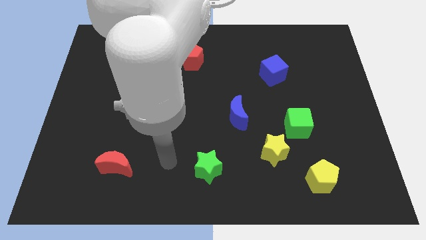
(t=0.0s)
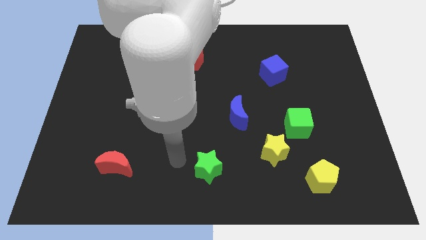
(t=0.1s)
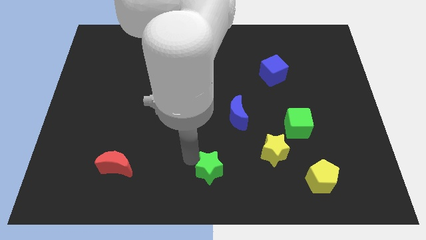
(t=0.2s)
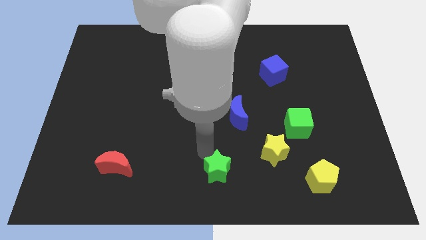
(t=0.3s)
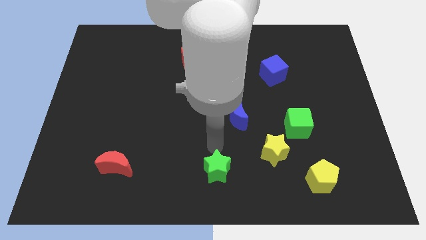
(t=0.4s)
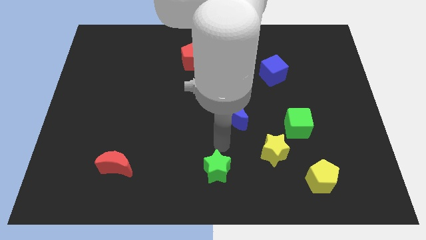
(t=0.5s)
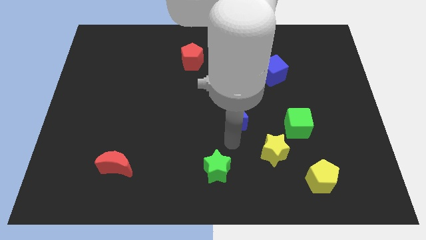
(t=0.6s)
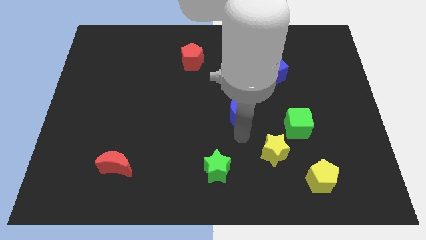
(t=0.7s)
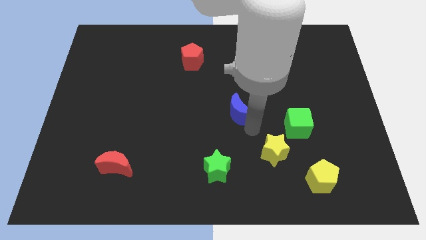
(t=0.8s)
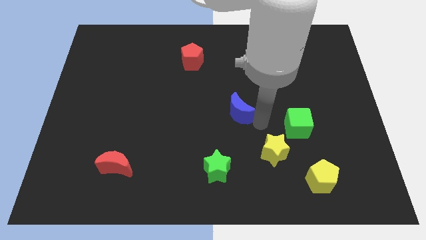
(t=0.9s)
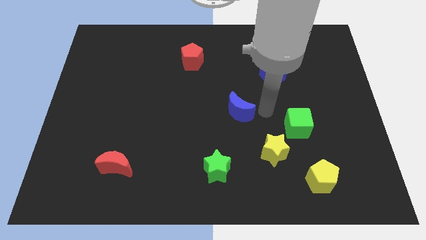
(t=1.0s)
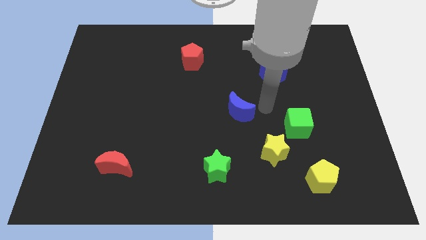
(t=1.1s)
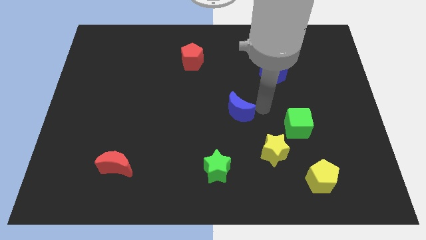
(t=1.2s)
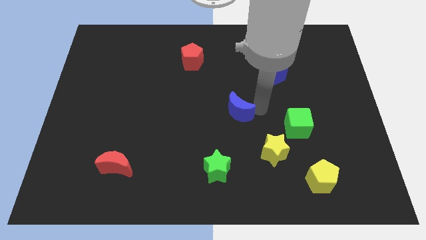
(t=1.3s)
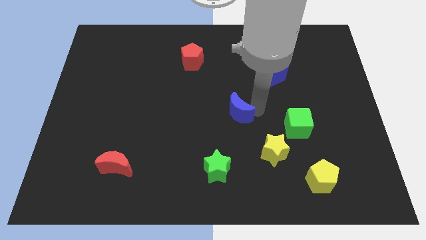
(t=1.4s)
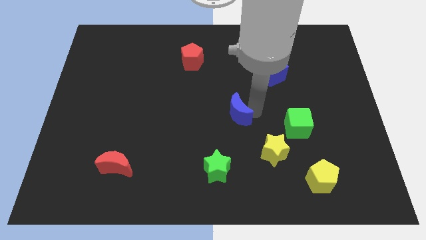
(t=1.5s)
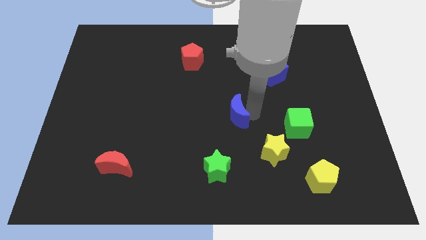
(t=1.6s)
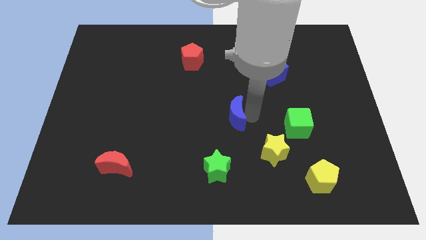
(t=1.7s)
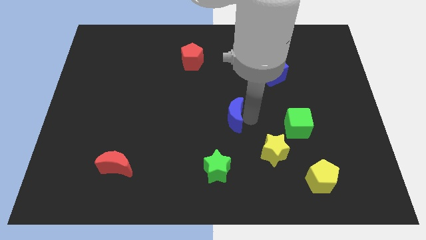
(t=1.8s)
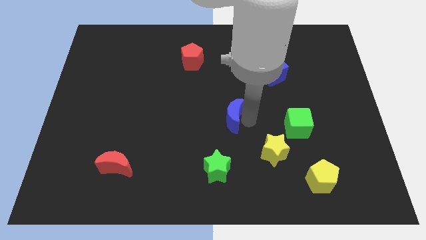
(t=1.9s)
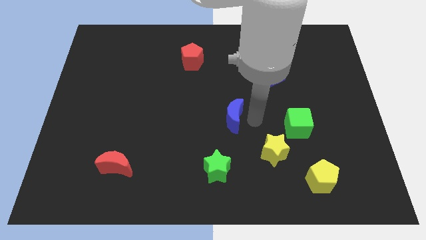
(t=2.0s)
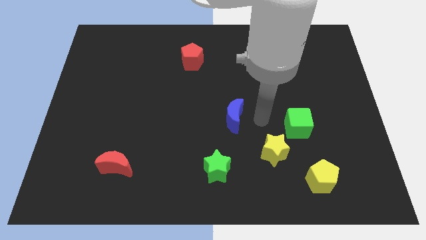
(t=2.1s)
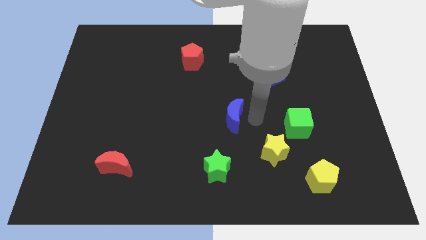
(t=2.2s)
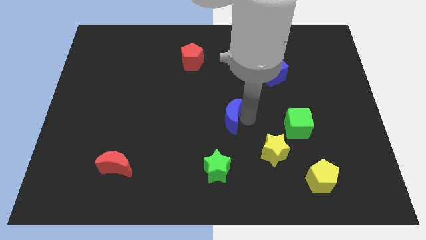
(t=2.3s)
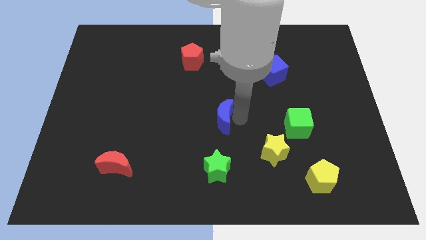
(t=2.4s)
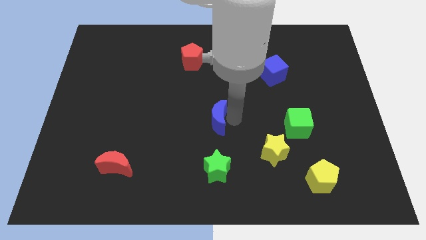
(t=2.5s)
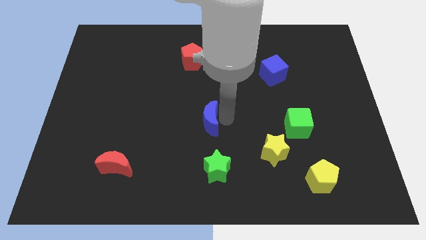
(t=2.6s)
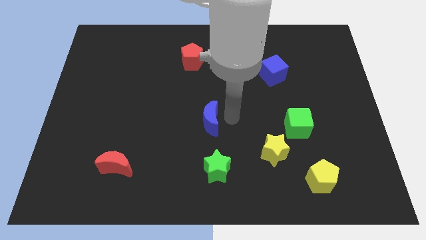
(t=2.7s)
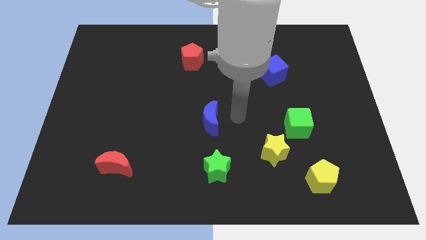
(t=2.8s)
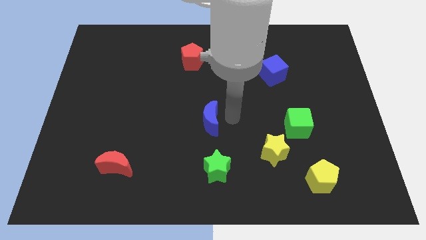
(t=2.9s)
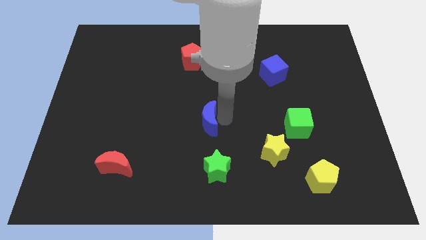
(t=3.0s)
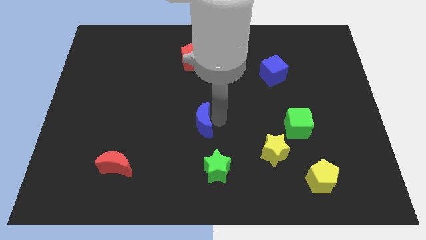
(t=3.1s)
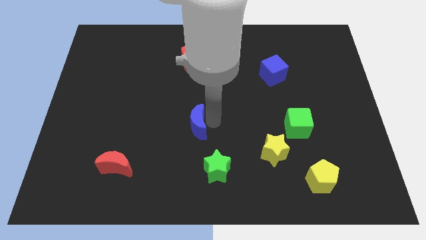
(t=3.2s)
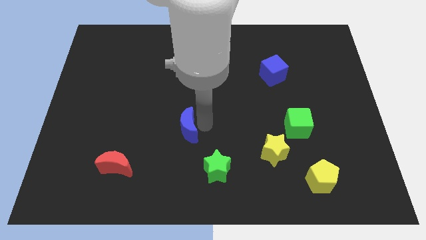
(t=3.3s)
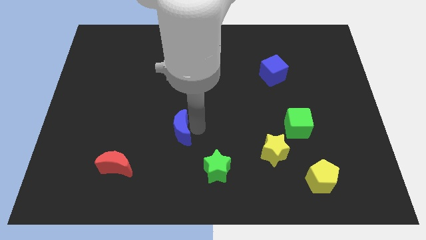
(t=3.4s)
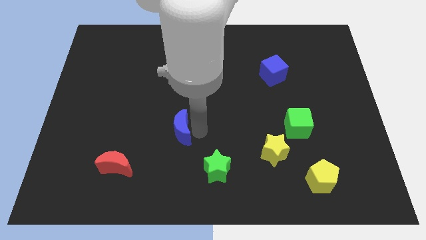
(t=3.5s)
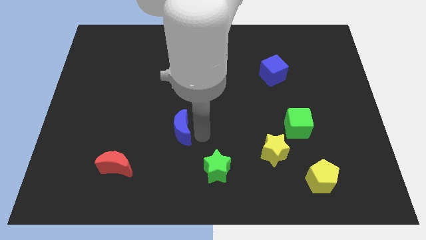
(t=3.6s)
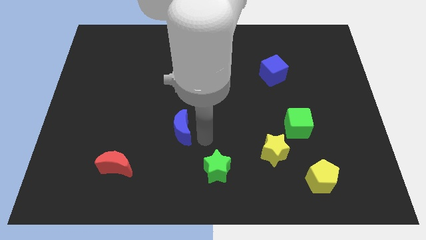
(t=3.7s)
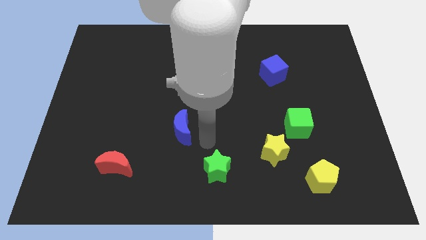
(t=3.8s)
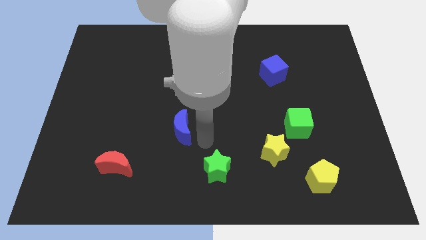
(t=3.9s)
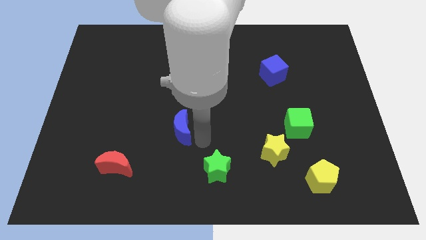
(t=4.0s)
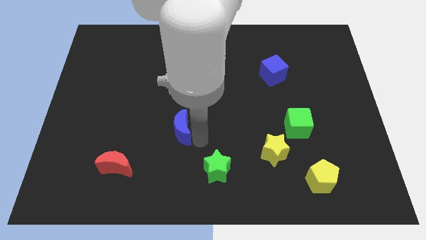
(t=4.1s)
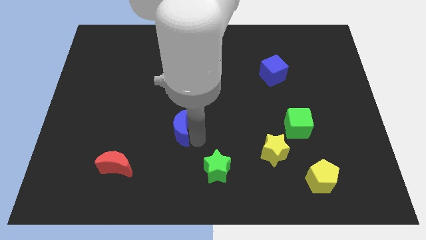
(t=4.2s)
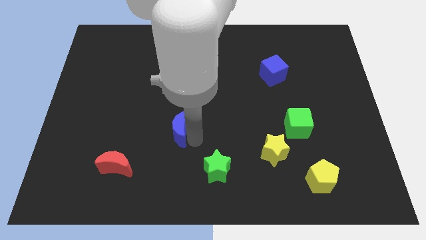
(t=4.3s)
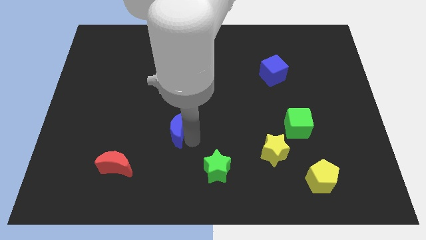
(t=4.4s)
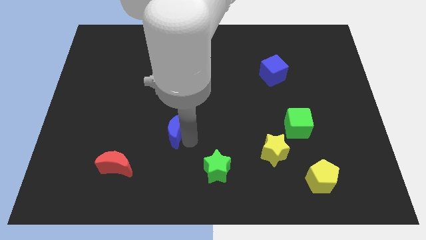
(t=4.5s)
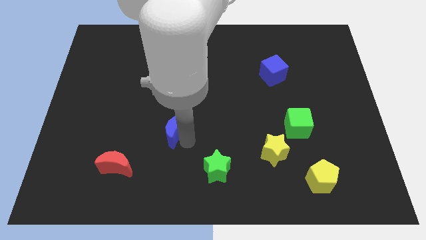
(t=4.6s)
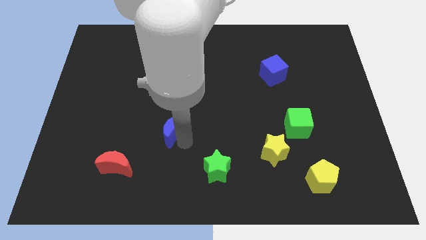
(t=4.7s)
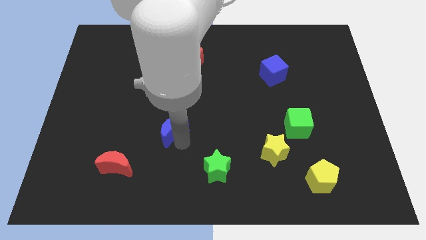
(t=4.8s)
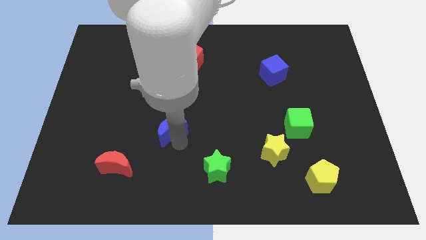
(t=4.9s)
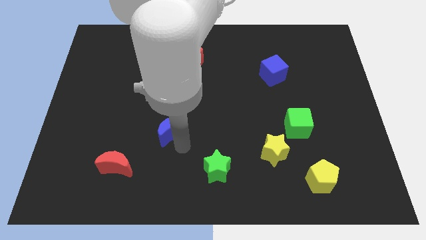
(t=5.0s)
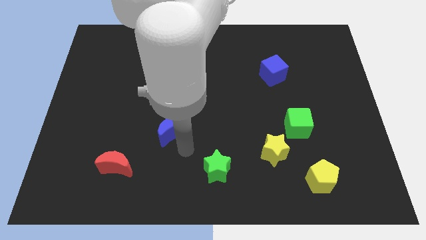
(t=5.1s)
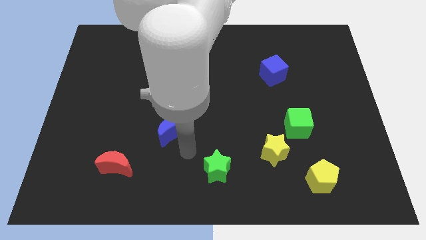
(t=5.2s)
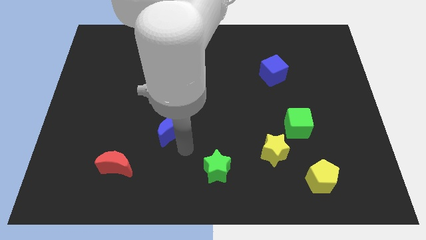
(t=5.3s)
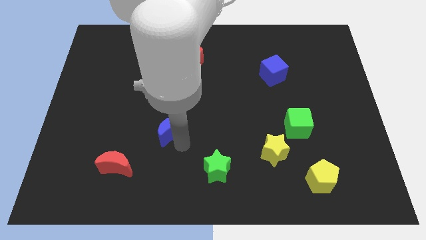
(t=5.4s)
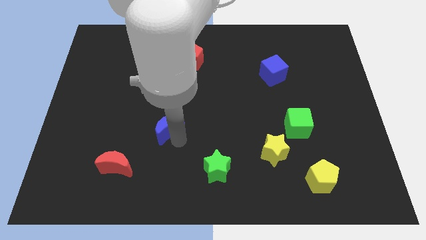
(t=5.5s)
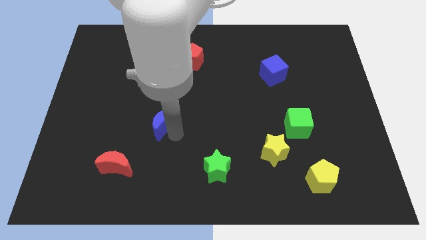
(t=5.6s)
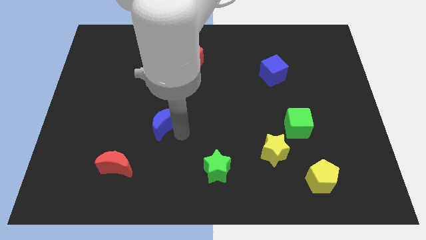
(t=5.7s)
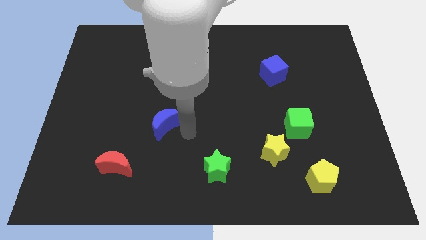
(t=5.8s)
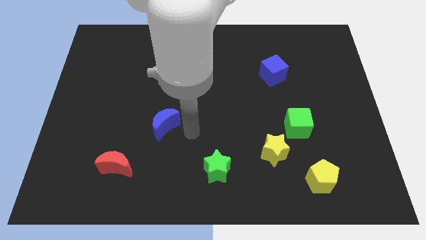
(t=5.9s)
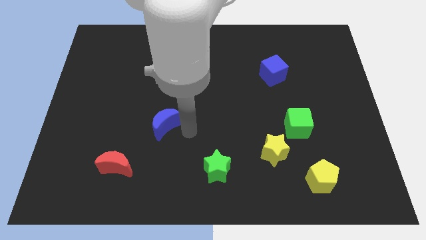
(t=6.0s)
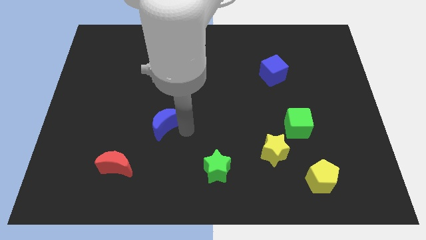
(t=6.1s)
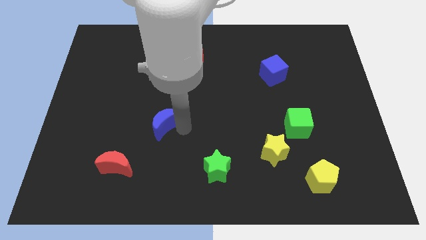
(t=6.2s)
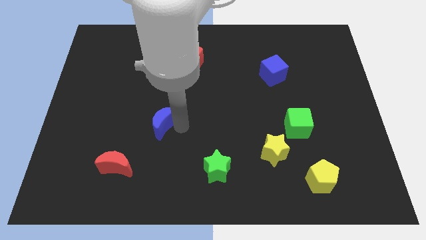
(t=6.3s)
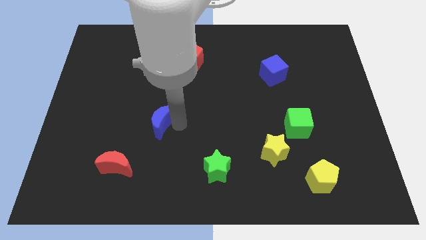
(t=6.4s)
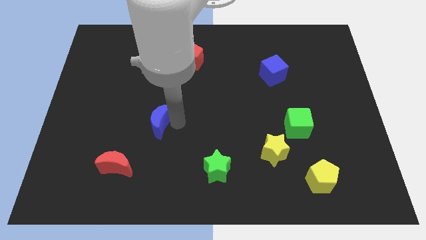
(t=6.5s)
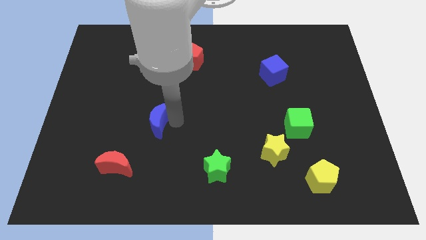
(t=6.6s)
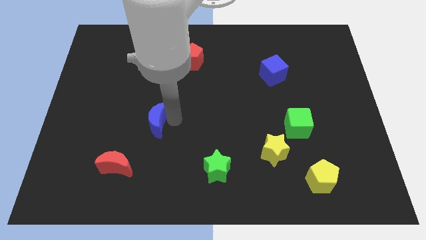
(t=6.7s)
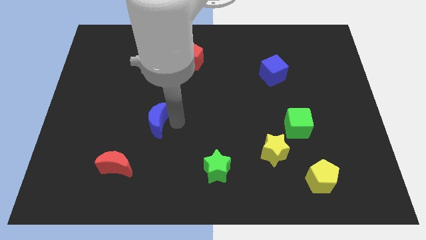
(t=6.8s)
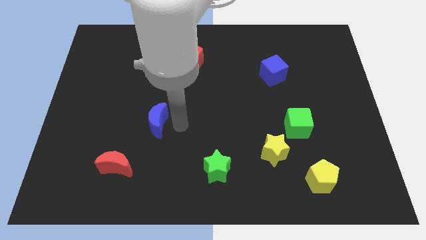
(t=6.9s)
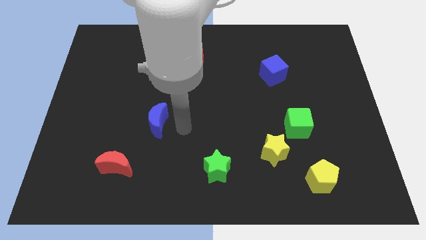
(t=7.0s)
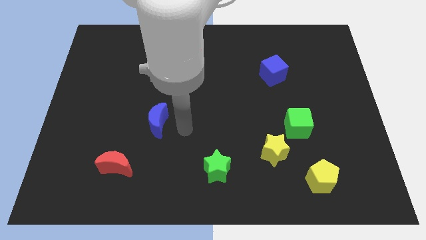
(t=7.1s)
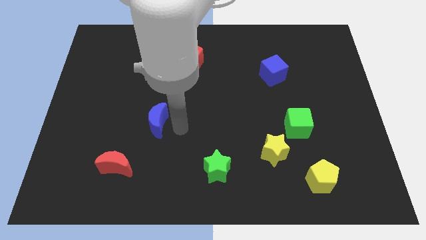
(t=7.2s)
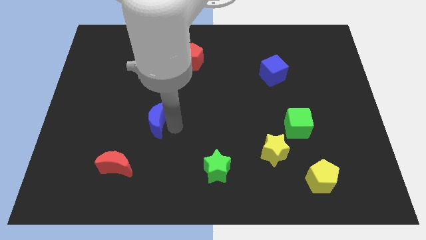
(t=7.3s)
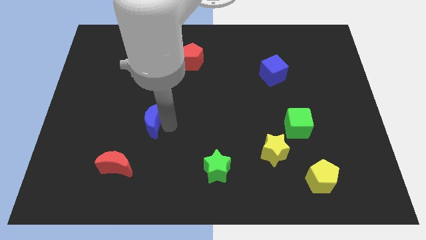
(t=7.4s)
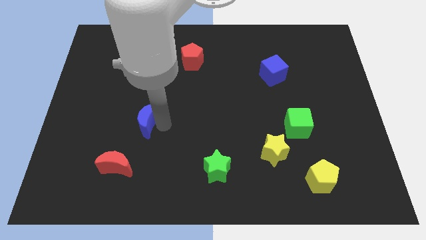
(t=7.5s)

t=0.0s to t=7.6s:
push the blue moon left

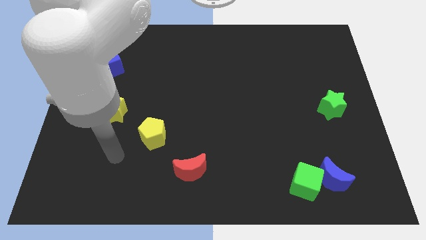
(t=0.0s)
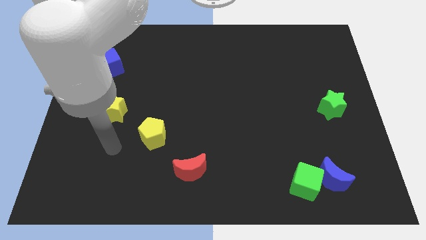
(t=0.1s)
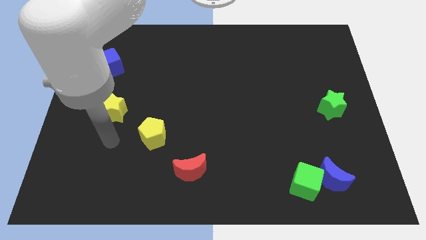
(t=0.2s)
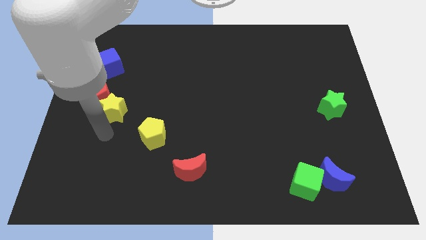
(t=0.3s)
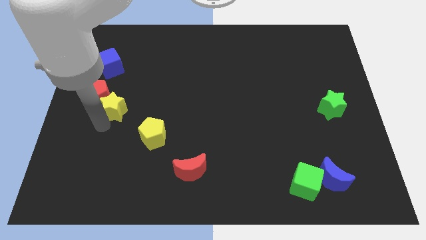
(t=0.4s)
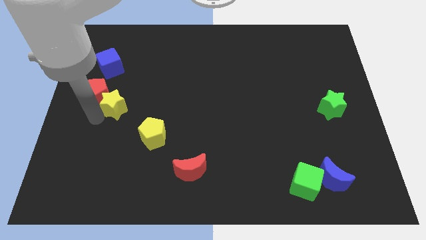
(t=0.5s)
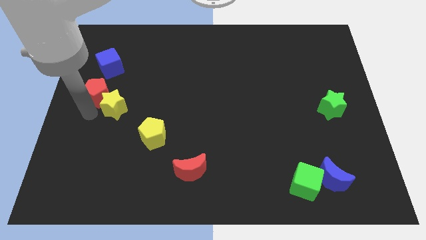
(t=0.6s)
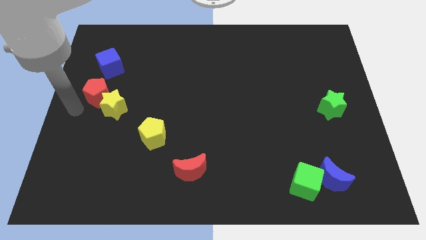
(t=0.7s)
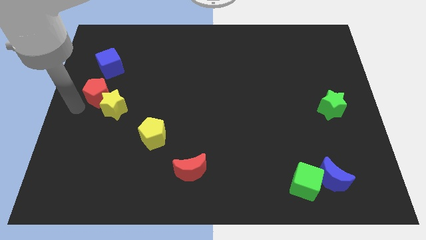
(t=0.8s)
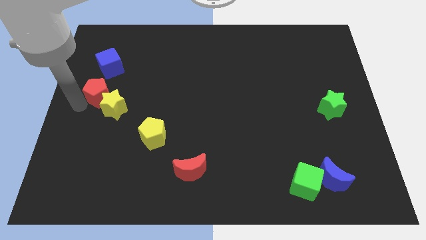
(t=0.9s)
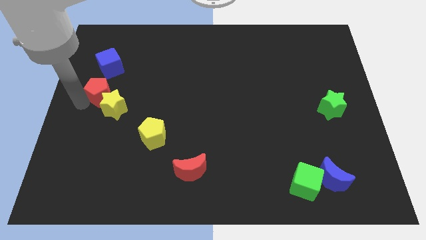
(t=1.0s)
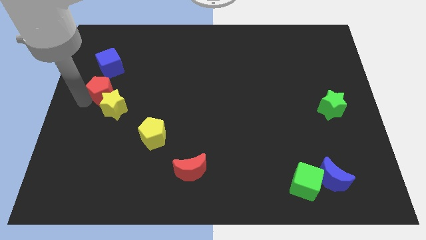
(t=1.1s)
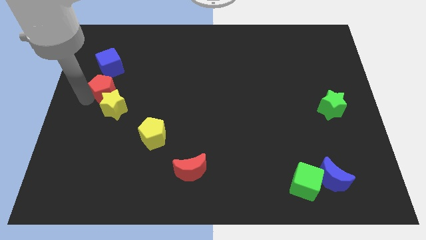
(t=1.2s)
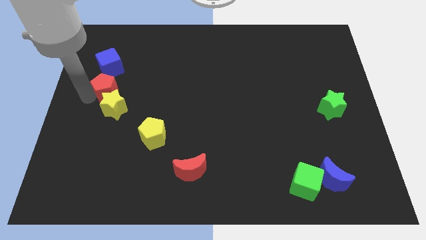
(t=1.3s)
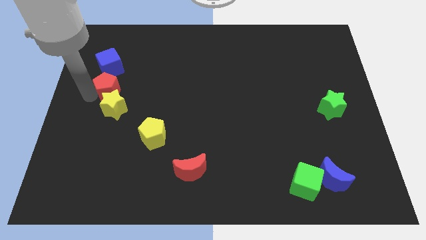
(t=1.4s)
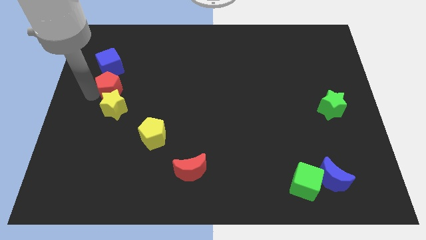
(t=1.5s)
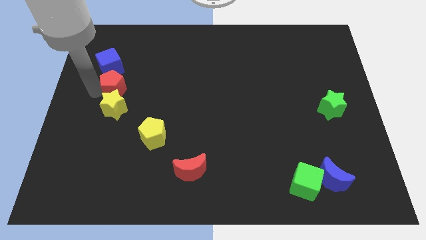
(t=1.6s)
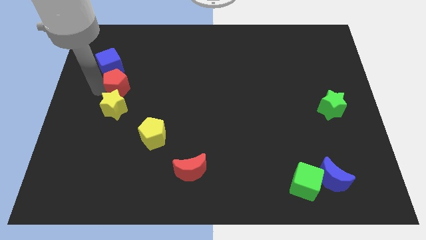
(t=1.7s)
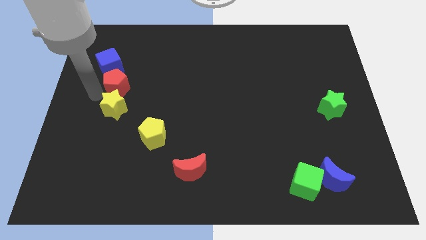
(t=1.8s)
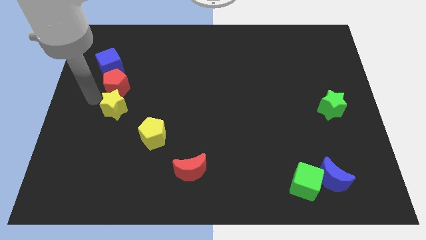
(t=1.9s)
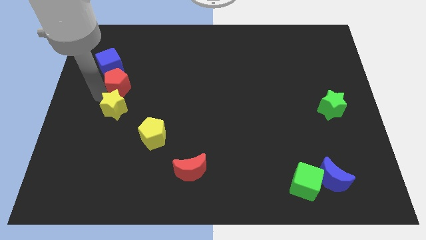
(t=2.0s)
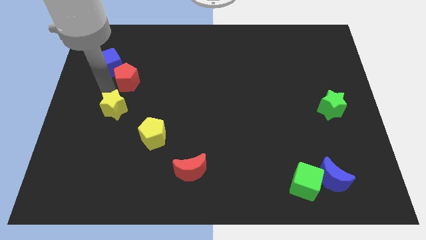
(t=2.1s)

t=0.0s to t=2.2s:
move the red pentagon up and to the right diagonally a bit
